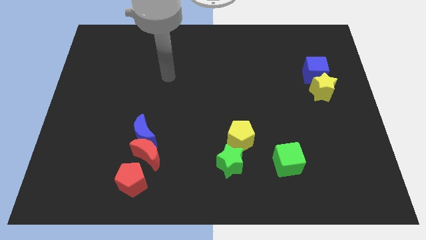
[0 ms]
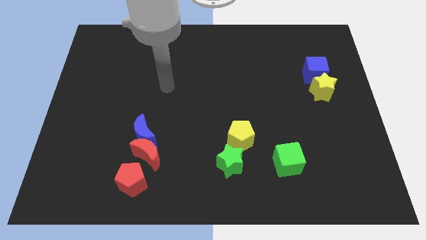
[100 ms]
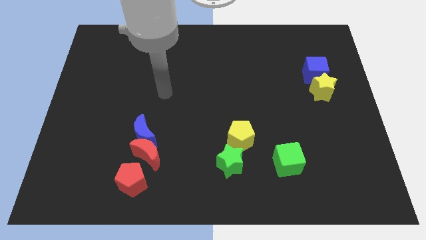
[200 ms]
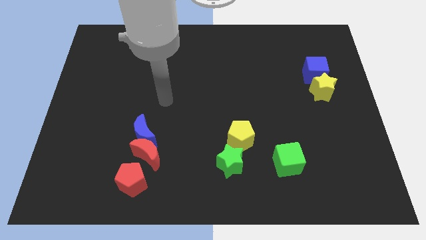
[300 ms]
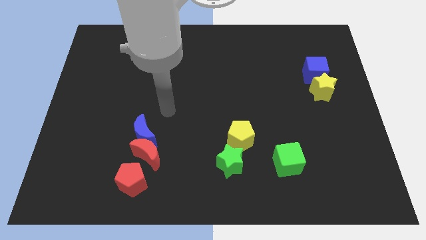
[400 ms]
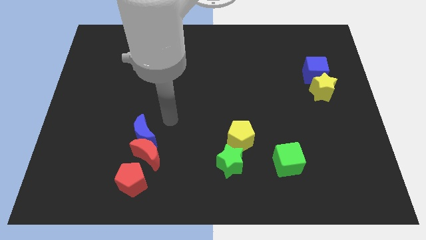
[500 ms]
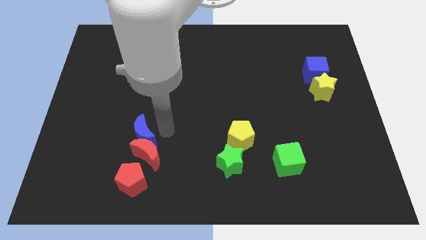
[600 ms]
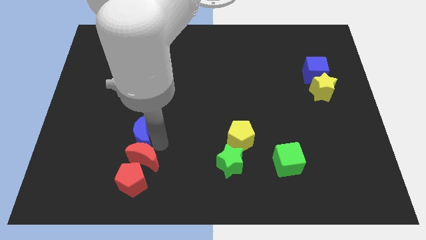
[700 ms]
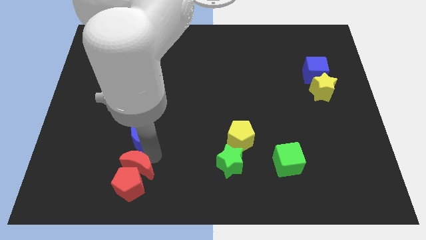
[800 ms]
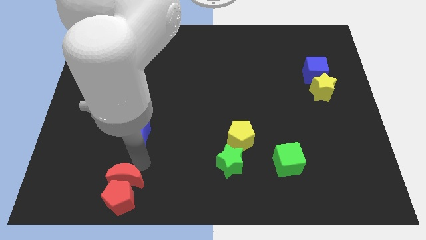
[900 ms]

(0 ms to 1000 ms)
move the blue moon away from the red moon

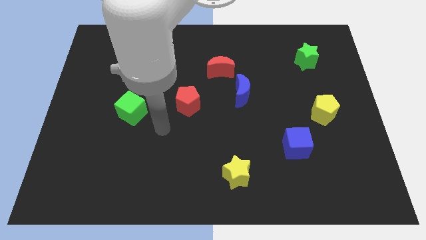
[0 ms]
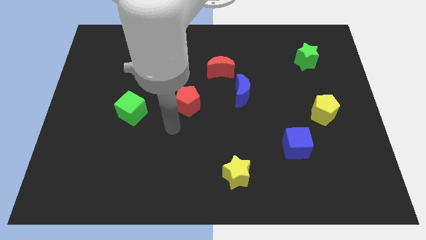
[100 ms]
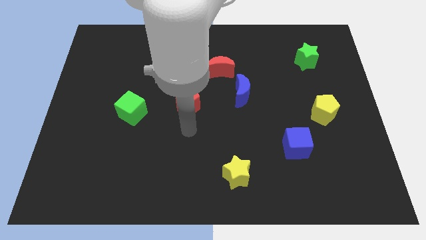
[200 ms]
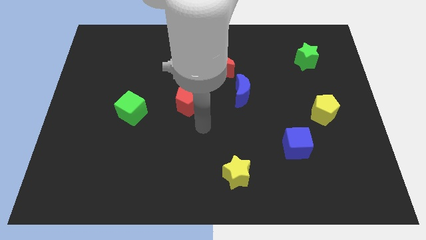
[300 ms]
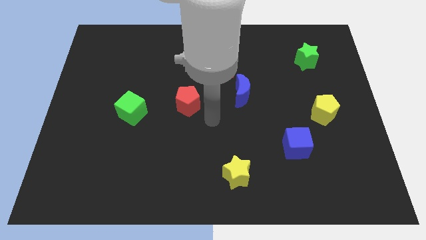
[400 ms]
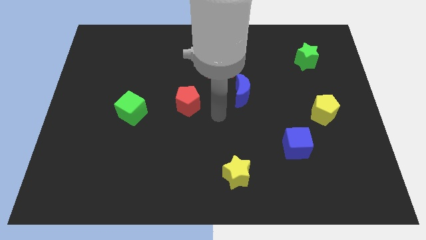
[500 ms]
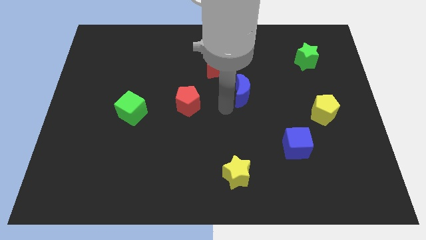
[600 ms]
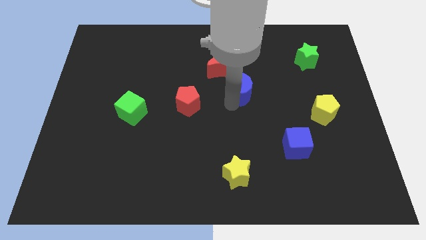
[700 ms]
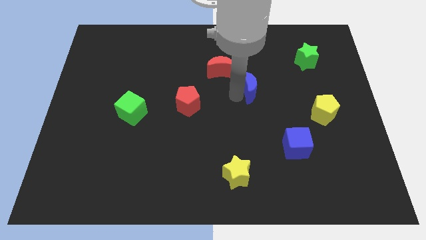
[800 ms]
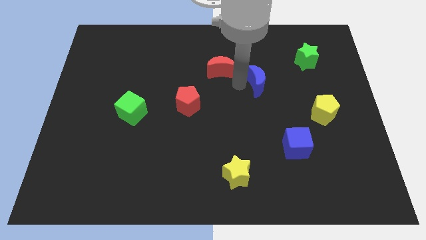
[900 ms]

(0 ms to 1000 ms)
pull the red moon apart from the blue moon

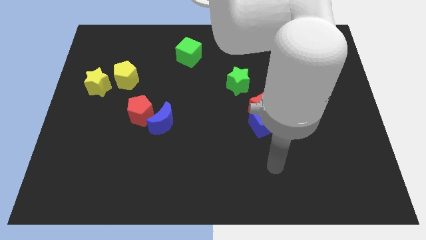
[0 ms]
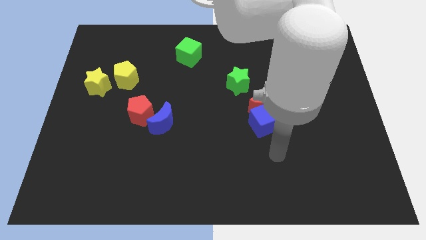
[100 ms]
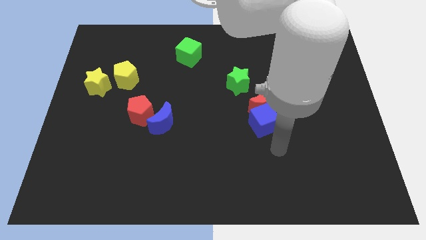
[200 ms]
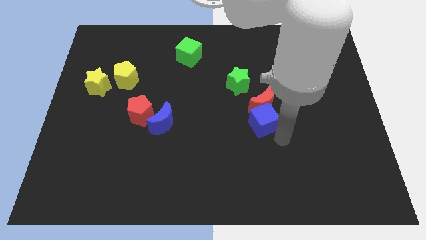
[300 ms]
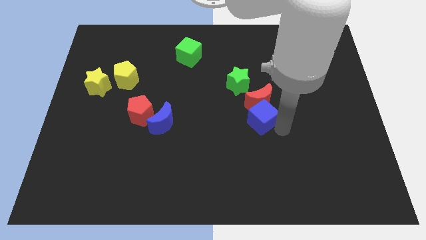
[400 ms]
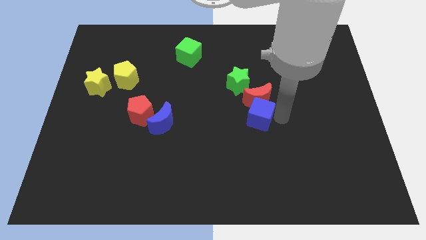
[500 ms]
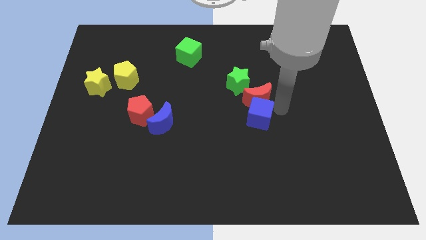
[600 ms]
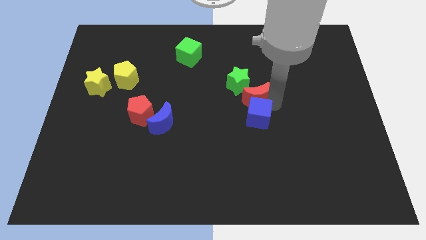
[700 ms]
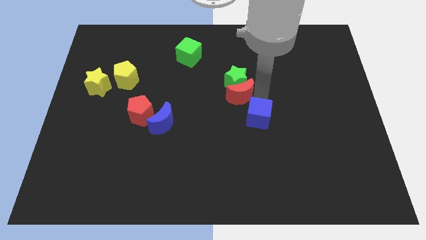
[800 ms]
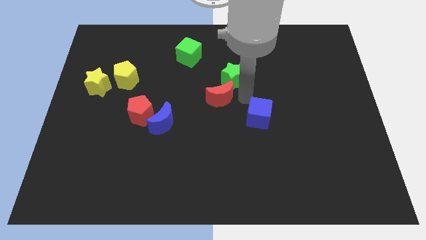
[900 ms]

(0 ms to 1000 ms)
move the blue cube away from the red moon

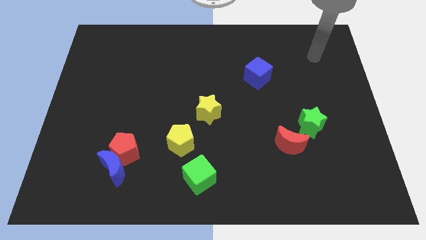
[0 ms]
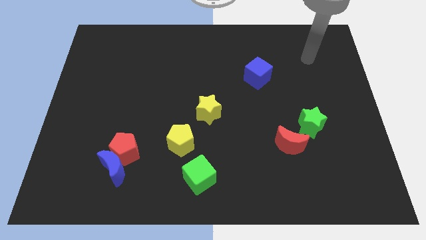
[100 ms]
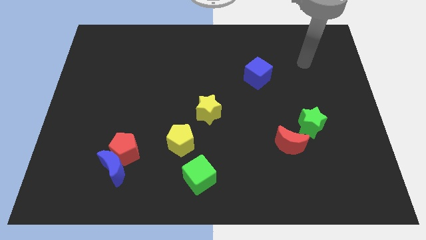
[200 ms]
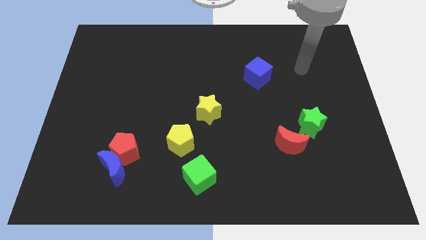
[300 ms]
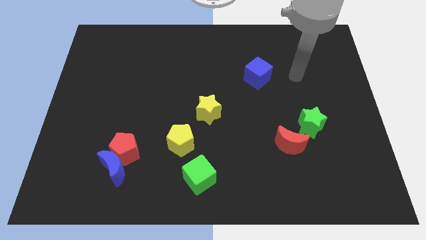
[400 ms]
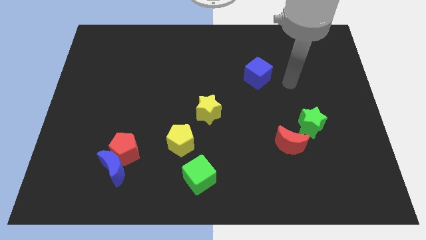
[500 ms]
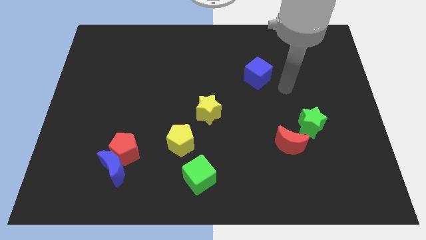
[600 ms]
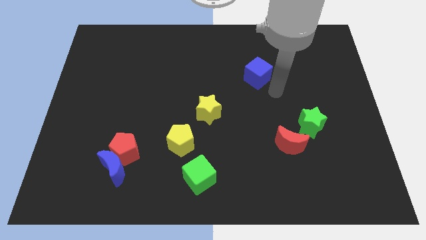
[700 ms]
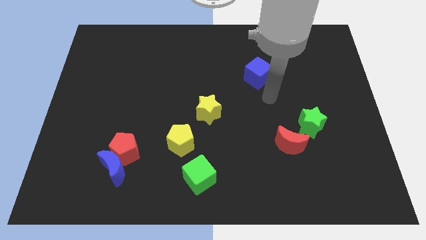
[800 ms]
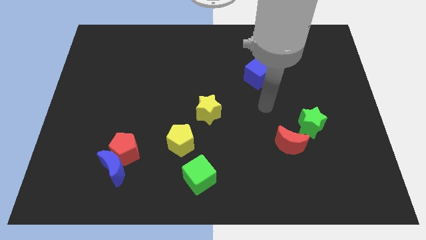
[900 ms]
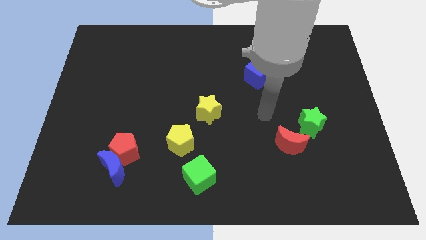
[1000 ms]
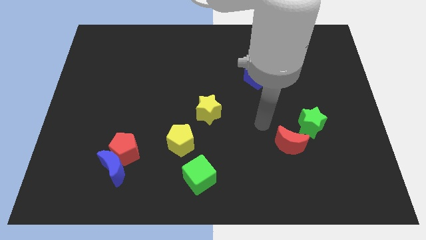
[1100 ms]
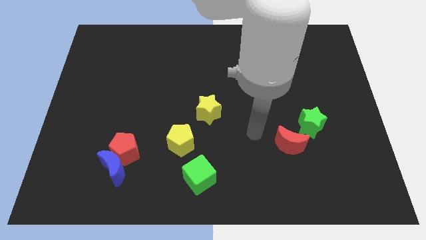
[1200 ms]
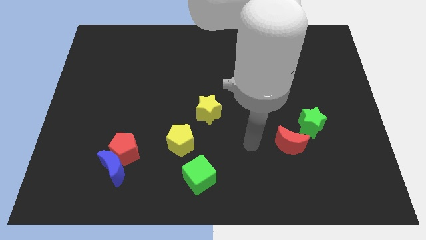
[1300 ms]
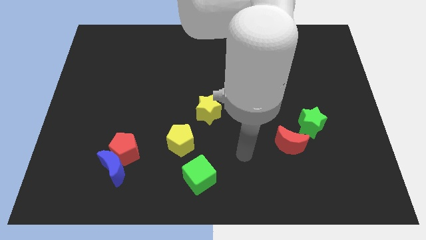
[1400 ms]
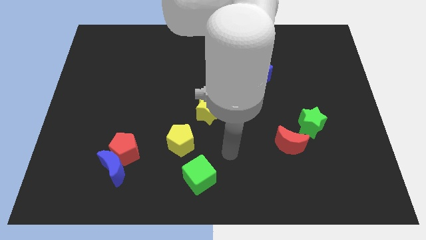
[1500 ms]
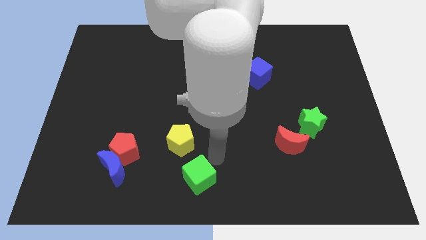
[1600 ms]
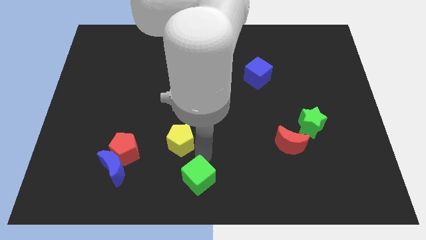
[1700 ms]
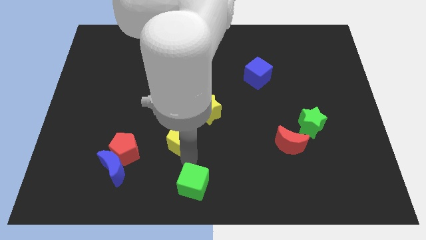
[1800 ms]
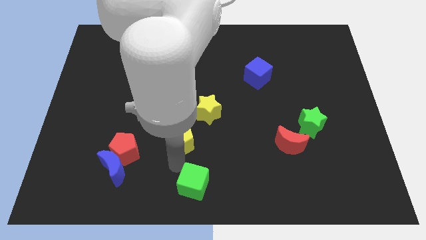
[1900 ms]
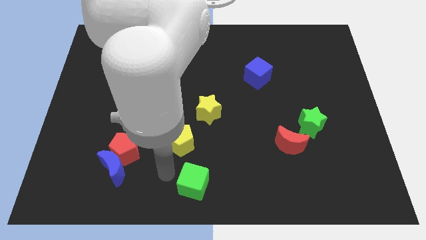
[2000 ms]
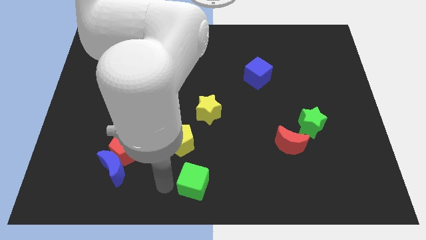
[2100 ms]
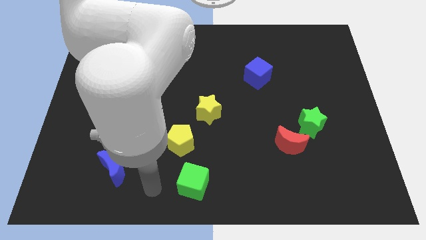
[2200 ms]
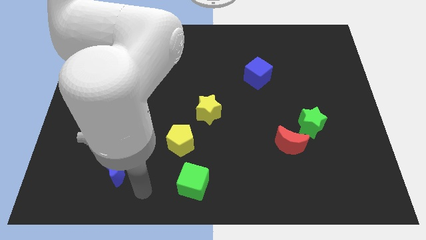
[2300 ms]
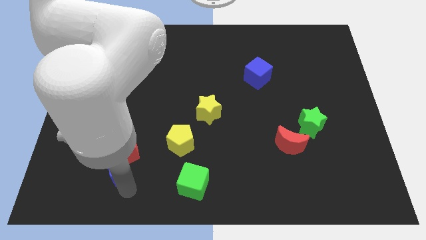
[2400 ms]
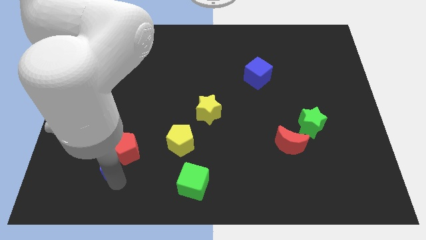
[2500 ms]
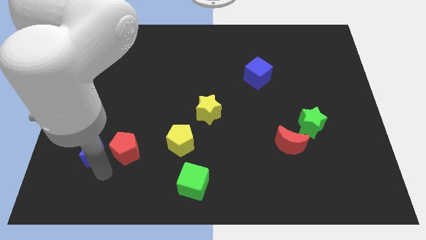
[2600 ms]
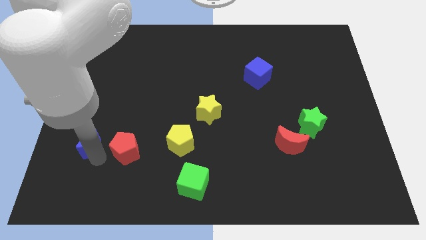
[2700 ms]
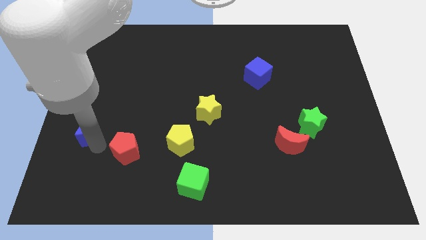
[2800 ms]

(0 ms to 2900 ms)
separate the red pentagon from the blue moon

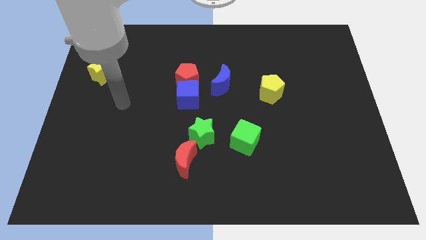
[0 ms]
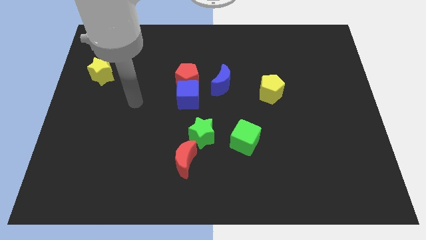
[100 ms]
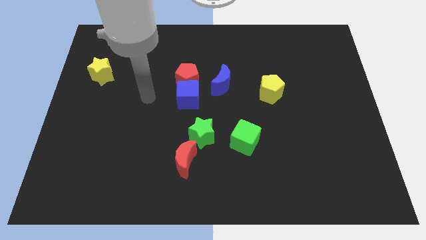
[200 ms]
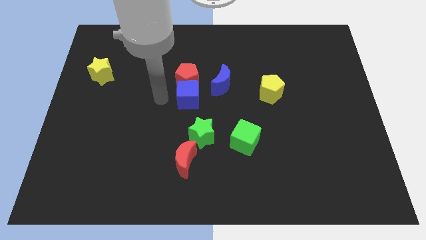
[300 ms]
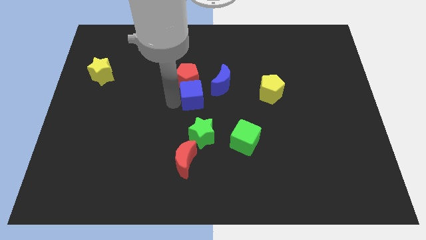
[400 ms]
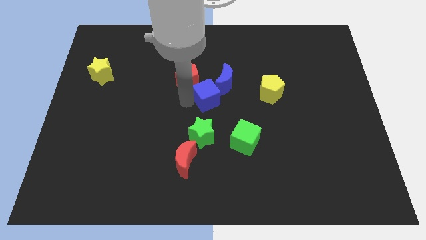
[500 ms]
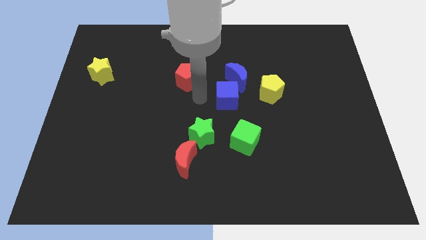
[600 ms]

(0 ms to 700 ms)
separate the red pentagon from the blue cube and blue moon

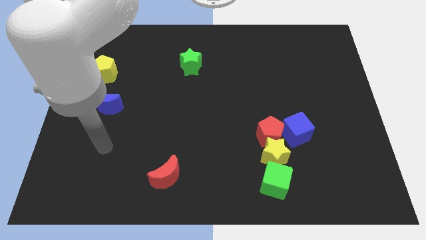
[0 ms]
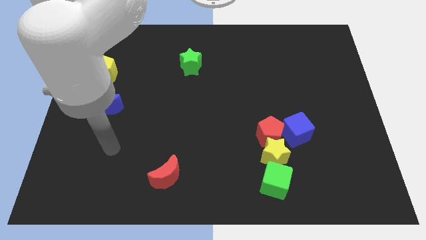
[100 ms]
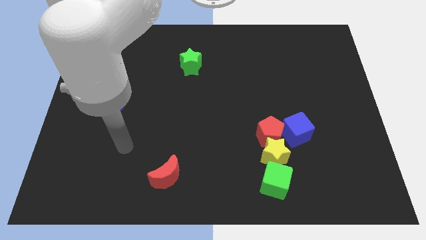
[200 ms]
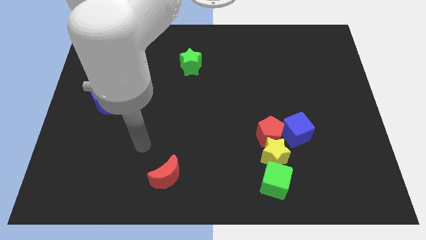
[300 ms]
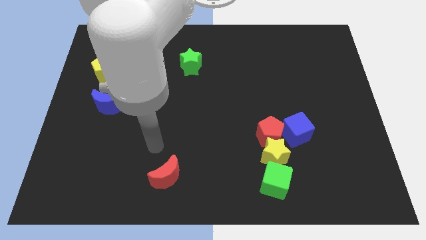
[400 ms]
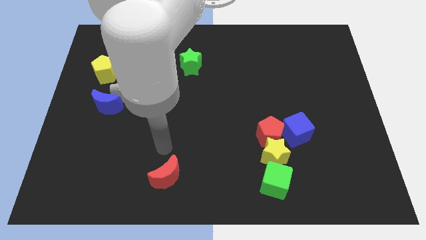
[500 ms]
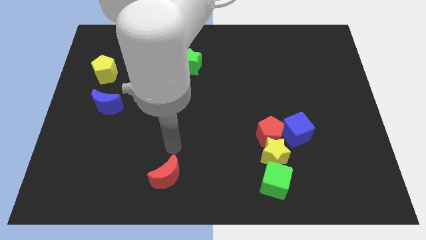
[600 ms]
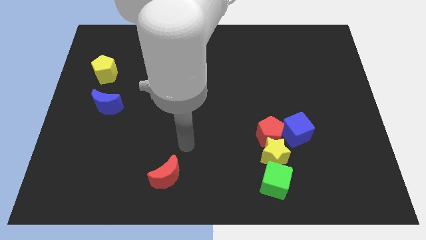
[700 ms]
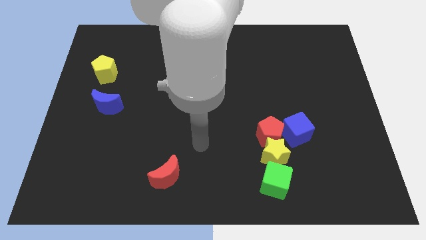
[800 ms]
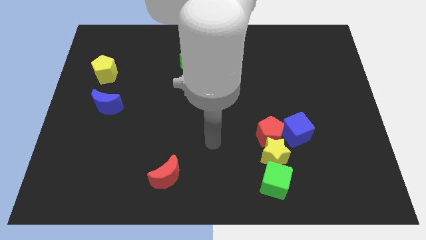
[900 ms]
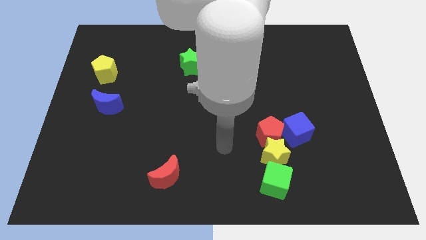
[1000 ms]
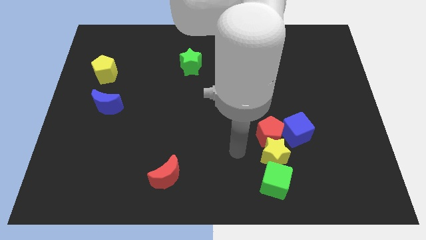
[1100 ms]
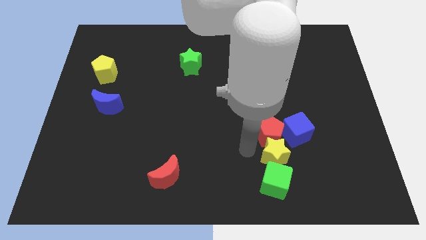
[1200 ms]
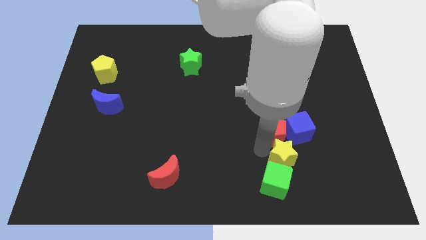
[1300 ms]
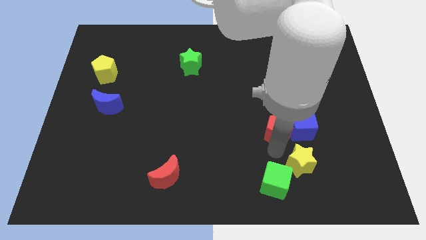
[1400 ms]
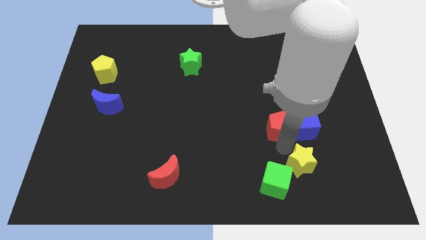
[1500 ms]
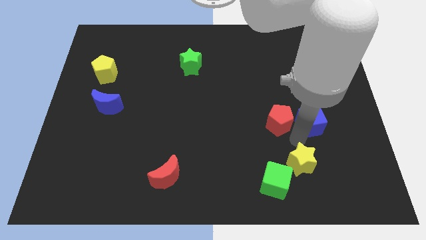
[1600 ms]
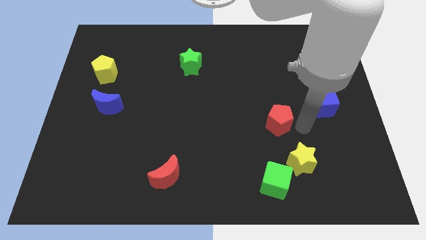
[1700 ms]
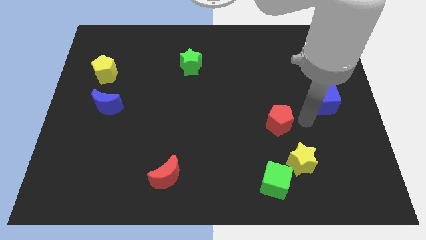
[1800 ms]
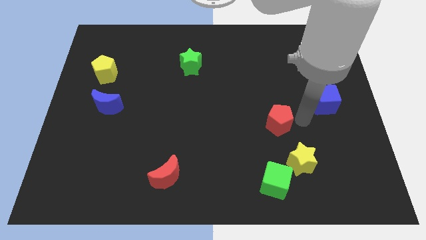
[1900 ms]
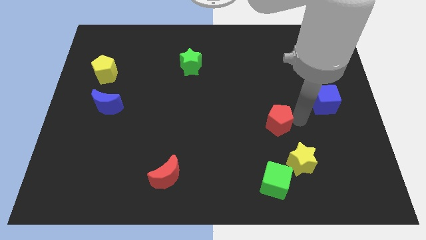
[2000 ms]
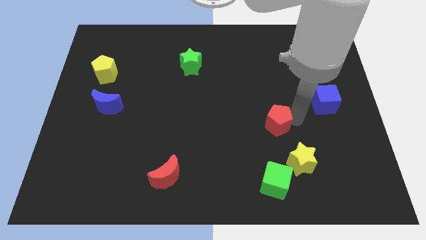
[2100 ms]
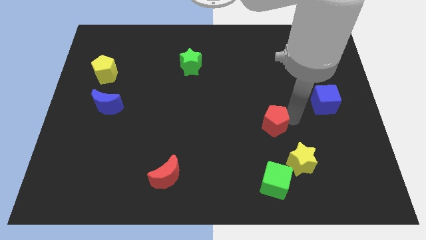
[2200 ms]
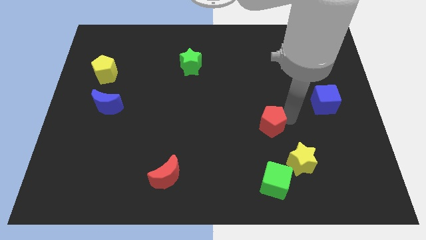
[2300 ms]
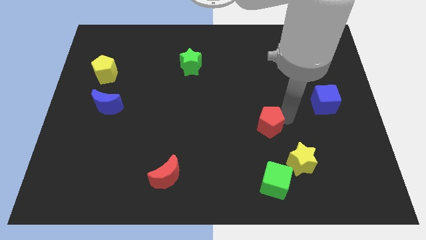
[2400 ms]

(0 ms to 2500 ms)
move the red pentagon away from the yellow star and blue cube
